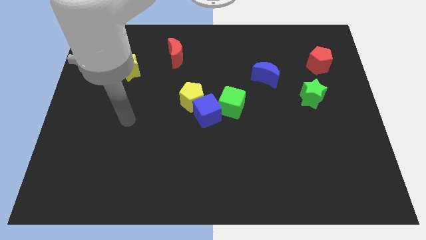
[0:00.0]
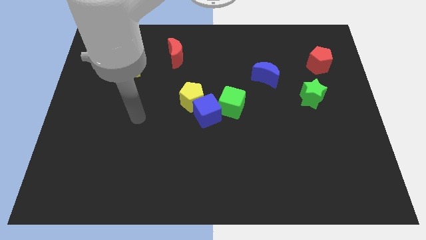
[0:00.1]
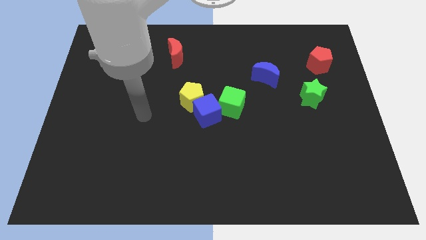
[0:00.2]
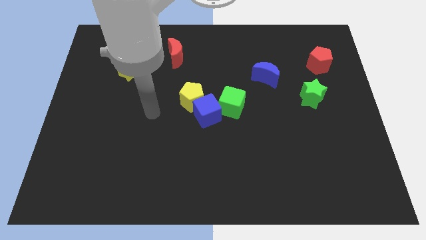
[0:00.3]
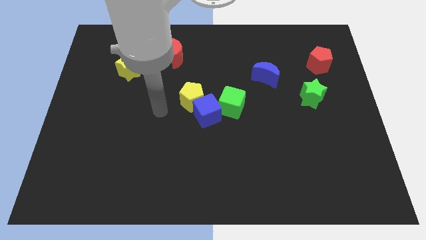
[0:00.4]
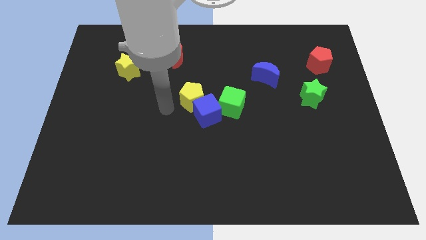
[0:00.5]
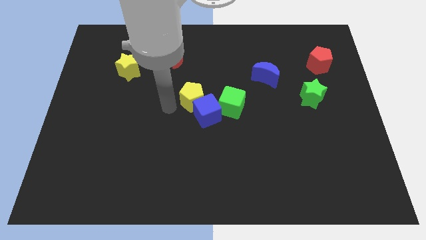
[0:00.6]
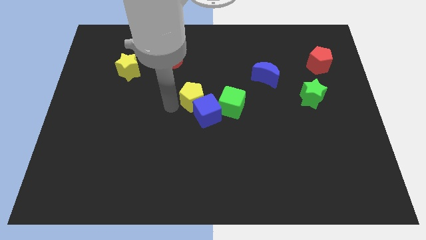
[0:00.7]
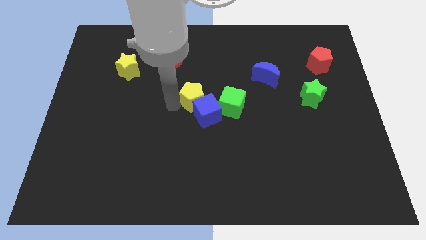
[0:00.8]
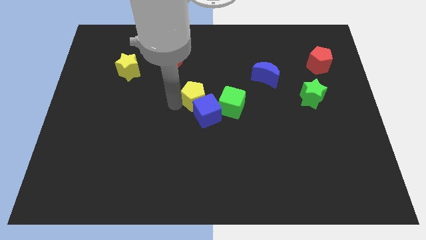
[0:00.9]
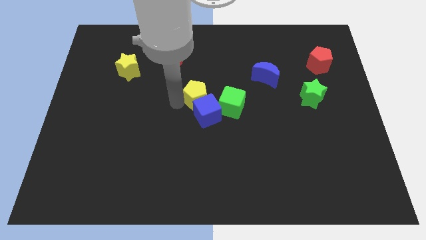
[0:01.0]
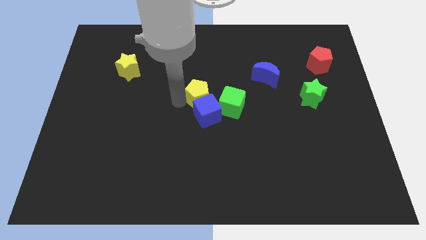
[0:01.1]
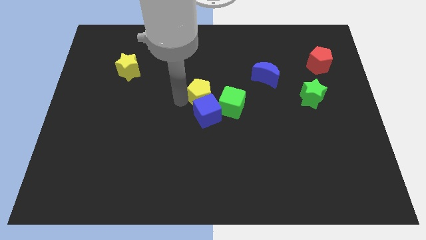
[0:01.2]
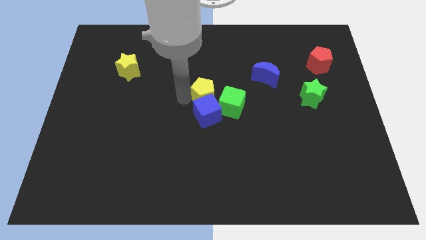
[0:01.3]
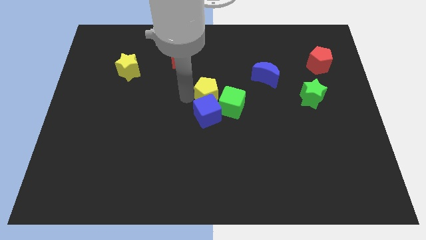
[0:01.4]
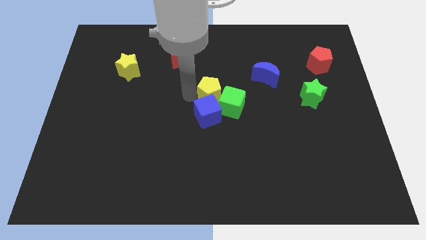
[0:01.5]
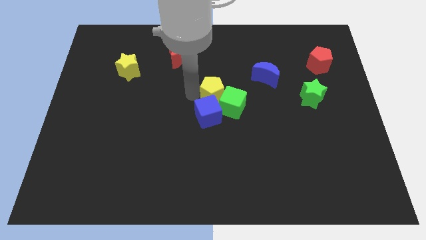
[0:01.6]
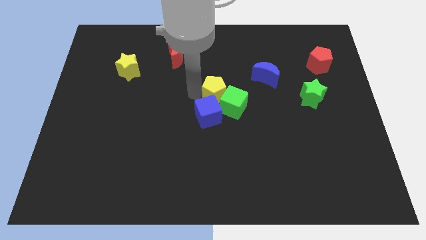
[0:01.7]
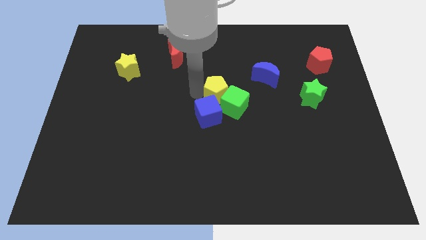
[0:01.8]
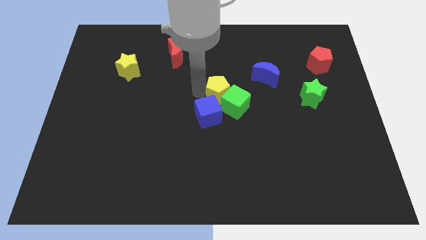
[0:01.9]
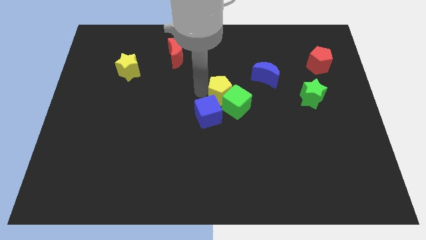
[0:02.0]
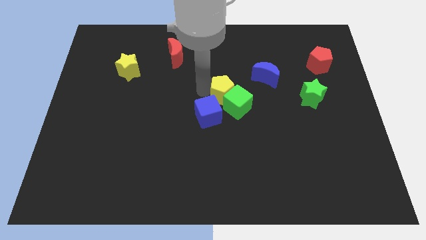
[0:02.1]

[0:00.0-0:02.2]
slightly slide the yellow pentagon to the right

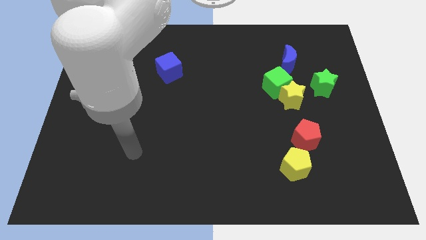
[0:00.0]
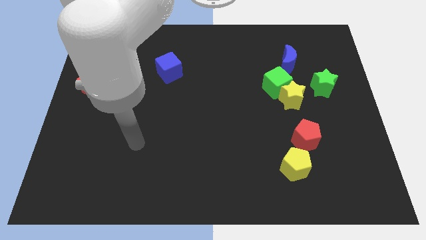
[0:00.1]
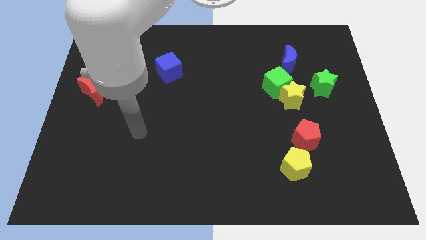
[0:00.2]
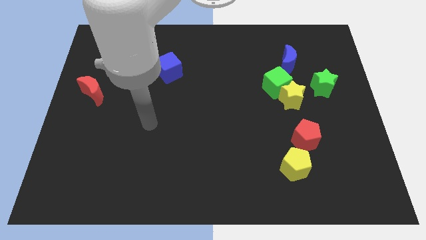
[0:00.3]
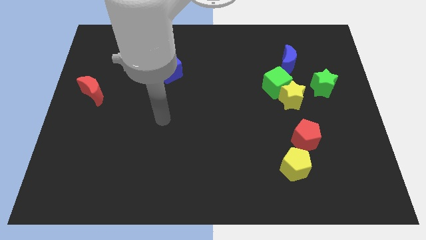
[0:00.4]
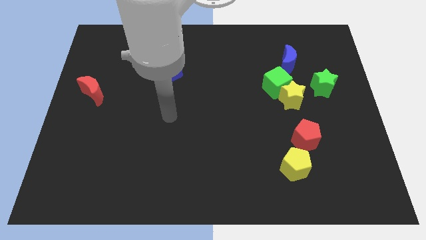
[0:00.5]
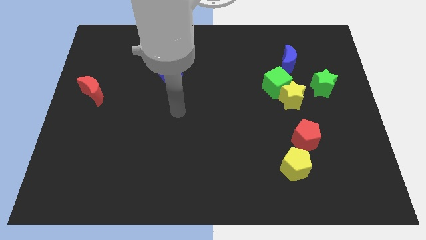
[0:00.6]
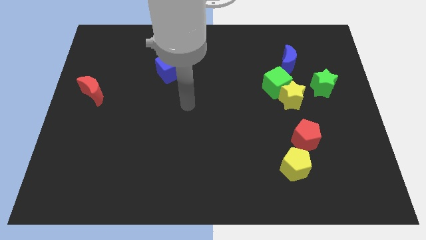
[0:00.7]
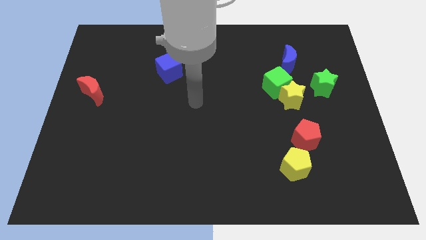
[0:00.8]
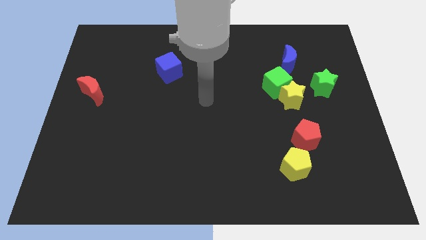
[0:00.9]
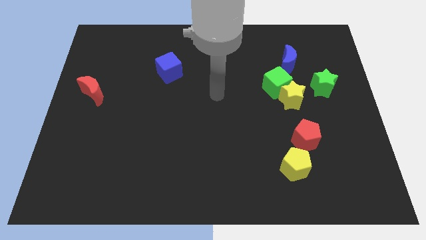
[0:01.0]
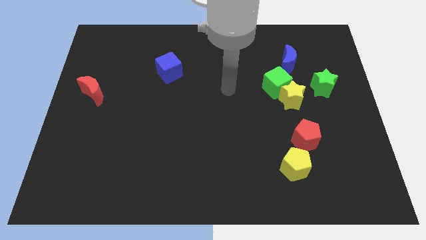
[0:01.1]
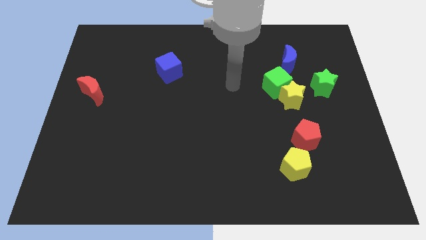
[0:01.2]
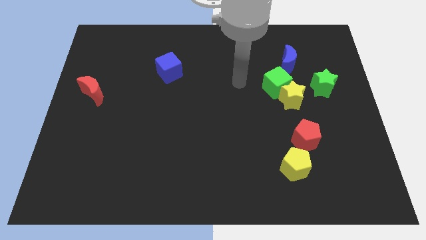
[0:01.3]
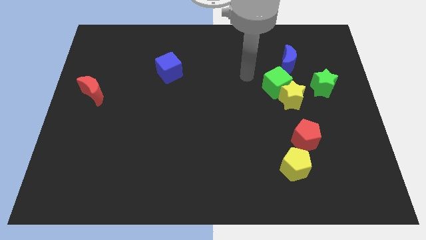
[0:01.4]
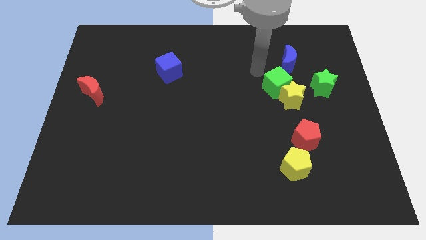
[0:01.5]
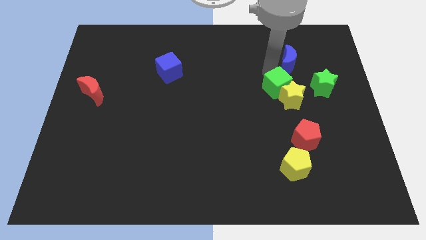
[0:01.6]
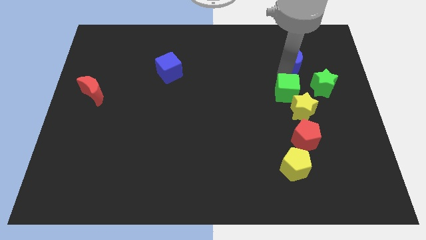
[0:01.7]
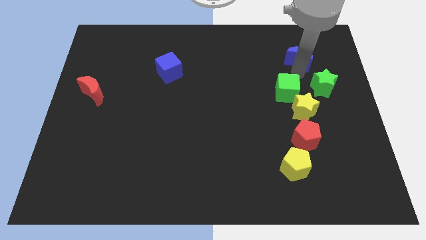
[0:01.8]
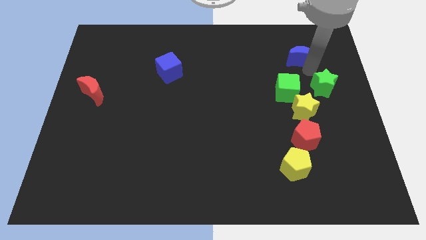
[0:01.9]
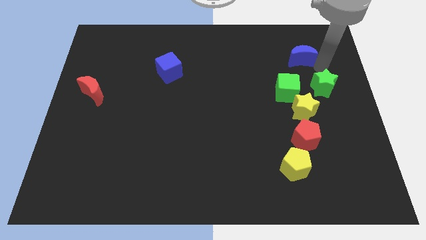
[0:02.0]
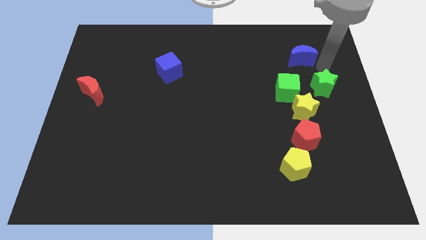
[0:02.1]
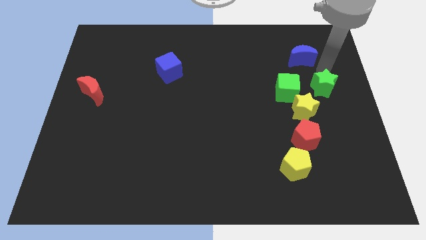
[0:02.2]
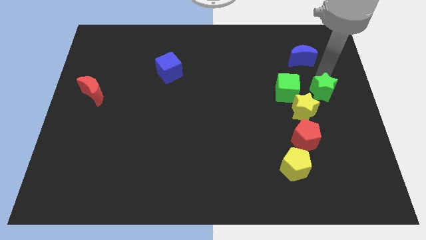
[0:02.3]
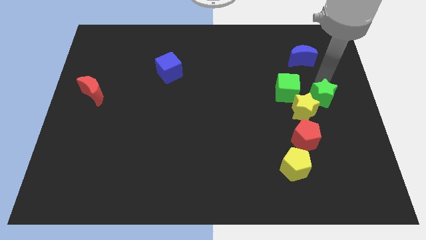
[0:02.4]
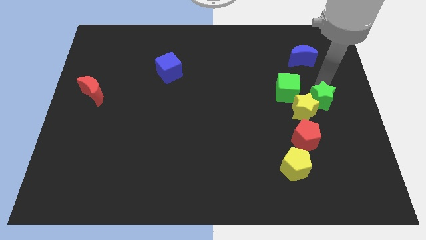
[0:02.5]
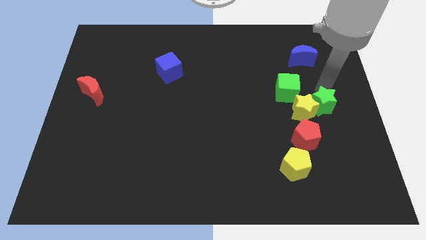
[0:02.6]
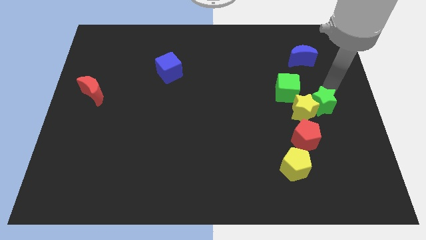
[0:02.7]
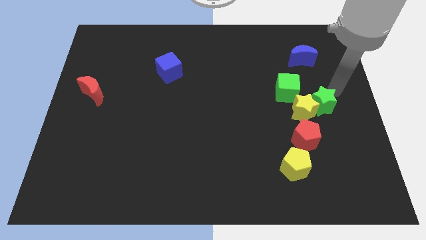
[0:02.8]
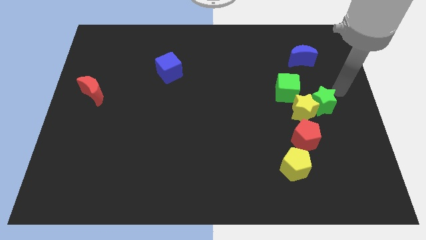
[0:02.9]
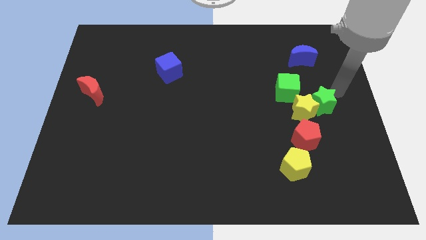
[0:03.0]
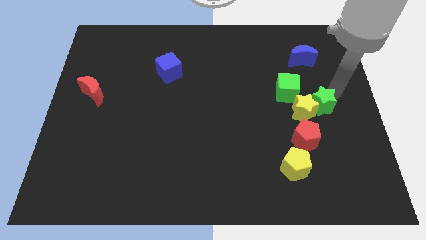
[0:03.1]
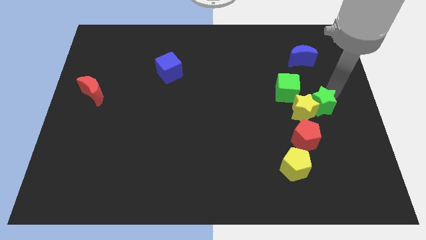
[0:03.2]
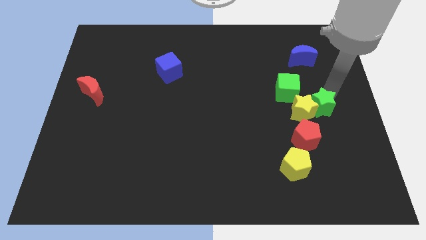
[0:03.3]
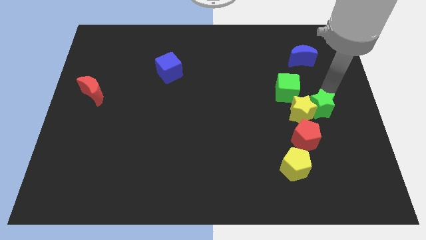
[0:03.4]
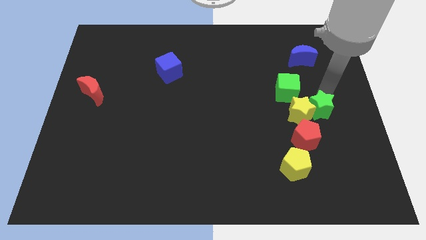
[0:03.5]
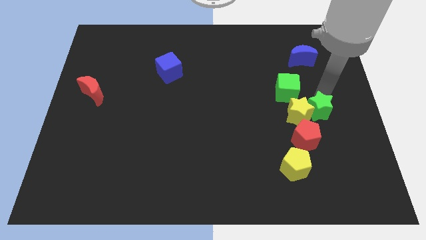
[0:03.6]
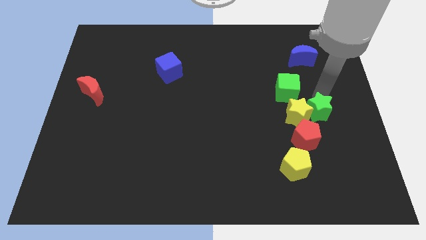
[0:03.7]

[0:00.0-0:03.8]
move the green star down and left diagonally slightly

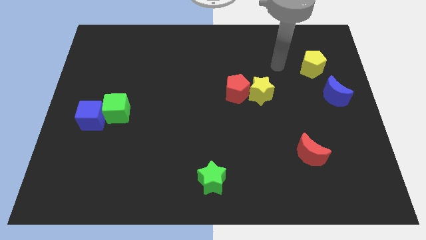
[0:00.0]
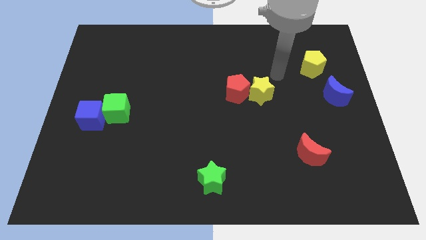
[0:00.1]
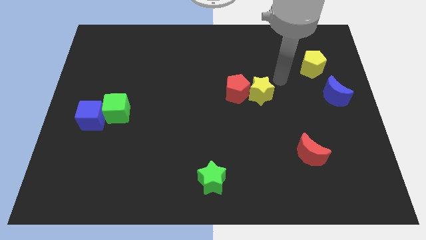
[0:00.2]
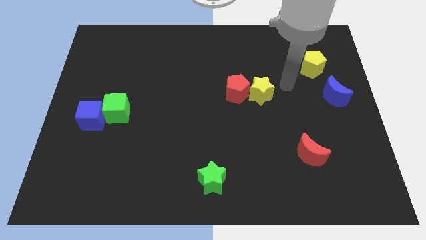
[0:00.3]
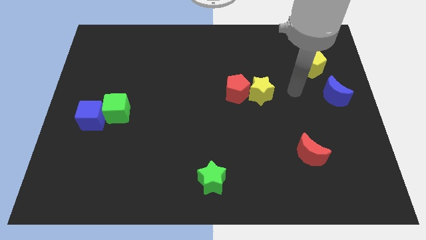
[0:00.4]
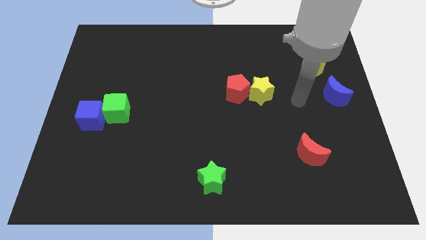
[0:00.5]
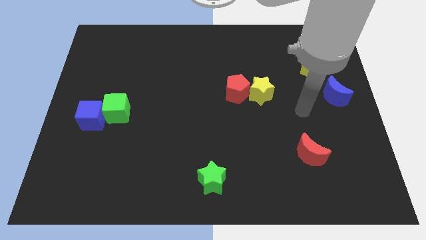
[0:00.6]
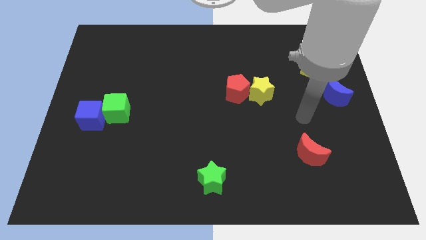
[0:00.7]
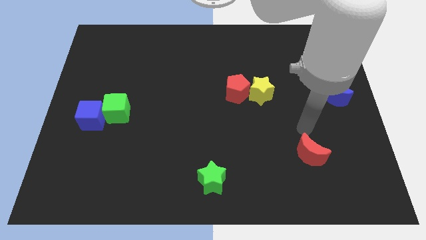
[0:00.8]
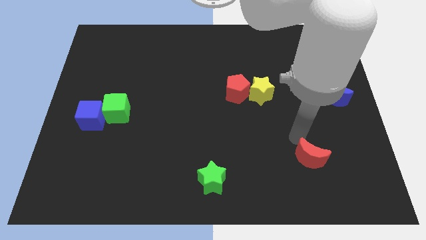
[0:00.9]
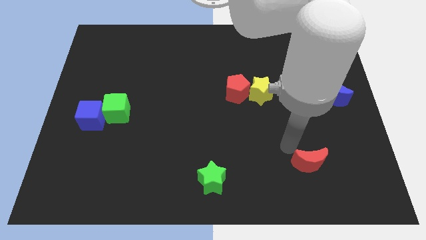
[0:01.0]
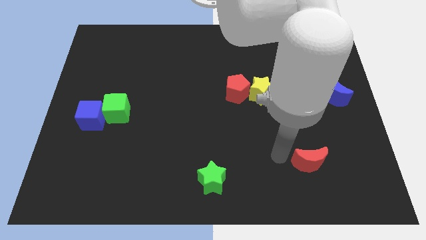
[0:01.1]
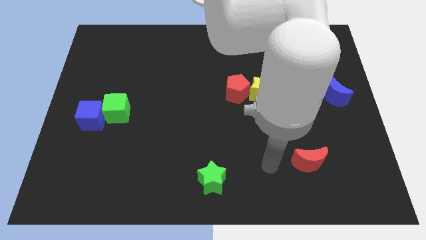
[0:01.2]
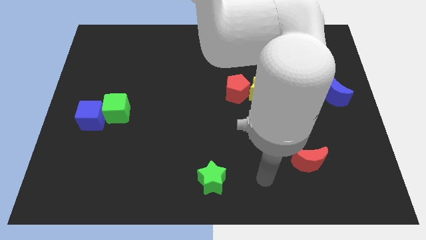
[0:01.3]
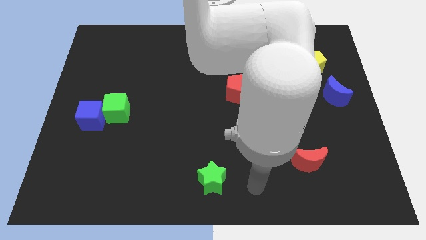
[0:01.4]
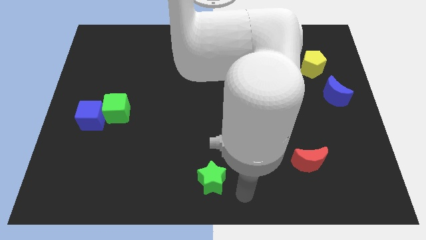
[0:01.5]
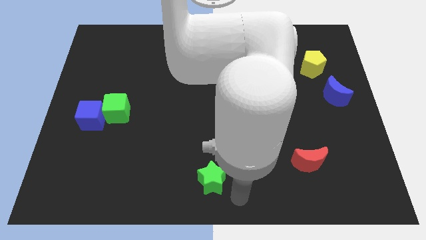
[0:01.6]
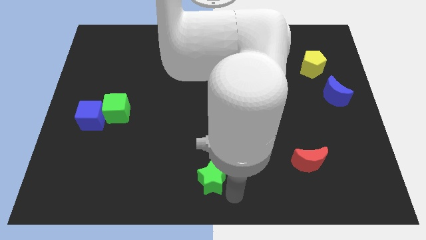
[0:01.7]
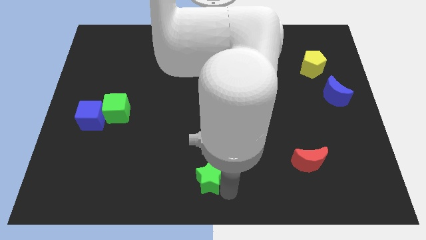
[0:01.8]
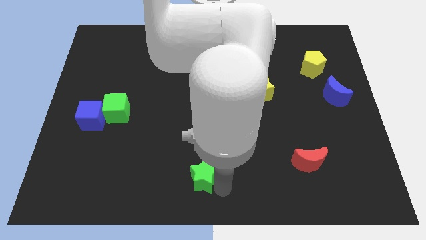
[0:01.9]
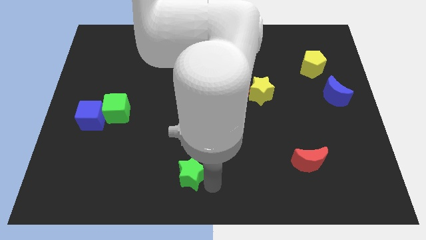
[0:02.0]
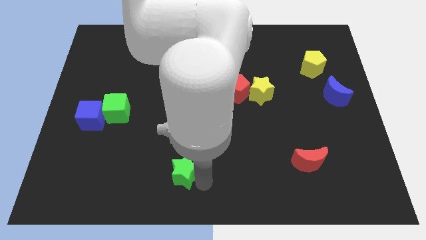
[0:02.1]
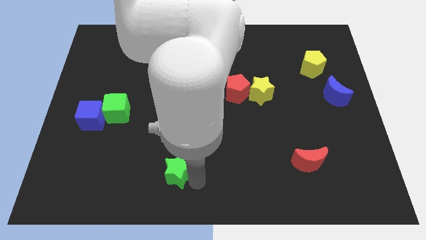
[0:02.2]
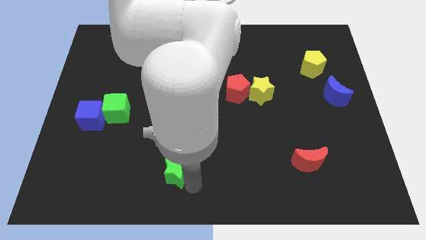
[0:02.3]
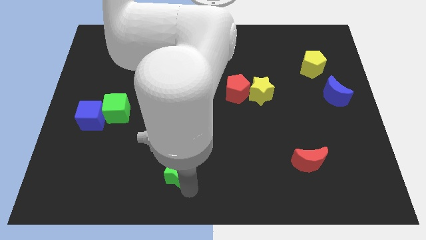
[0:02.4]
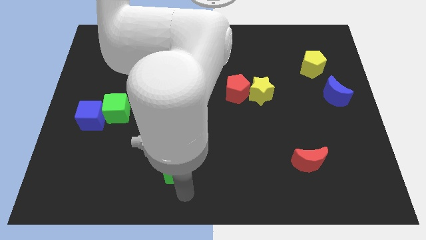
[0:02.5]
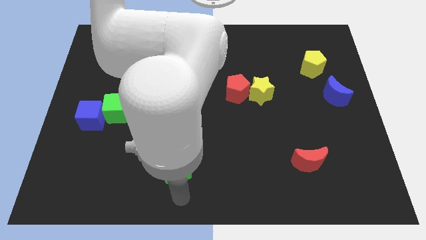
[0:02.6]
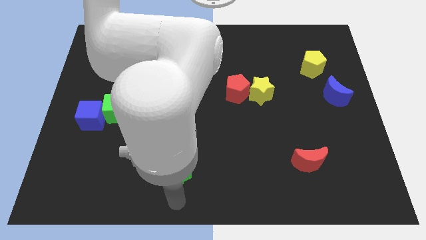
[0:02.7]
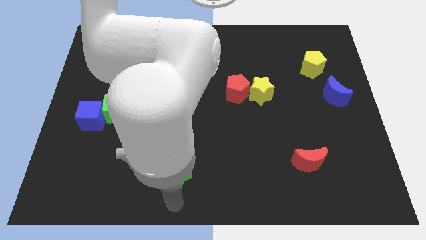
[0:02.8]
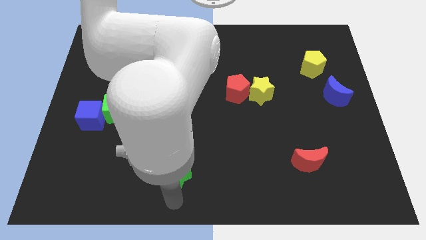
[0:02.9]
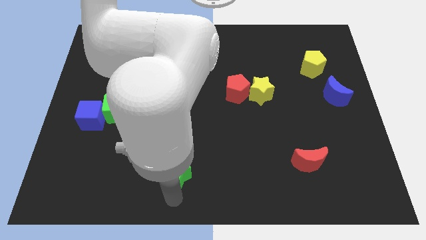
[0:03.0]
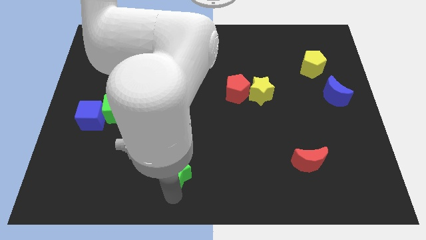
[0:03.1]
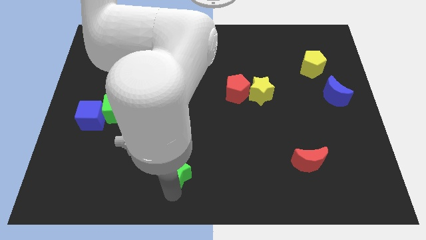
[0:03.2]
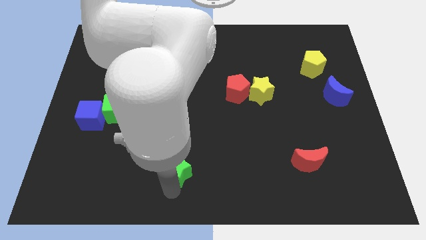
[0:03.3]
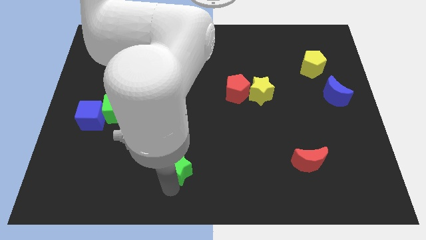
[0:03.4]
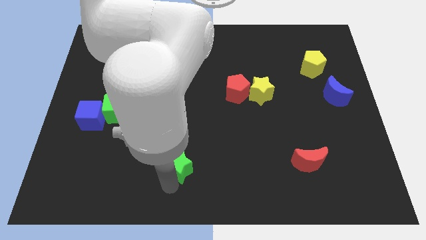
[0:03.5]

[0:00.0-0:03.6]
slide the green star up and to the left somewhat
